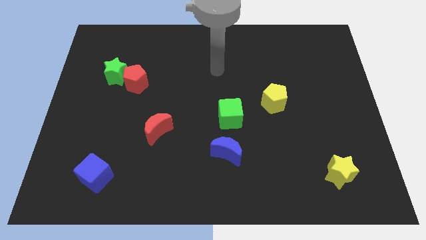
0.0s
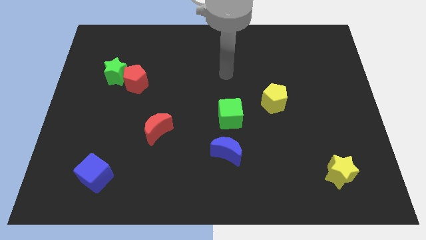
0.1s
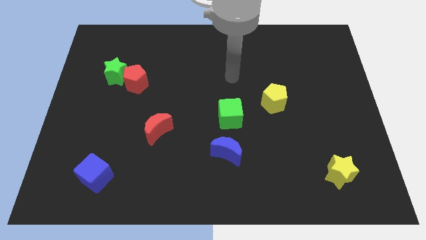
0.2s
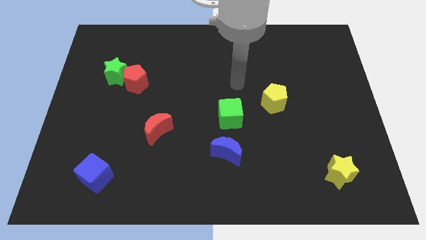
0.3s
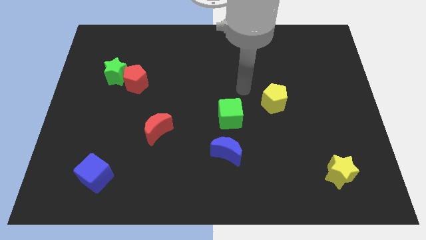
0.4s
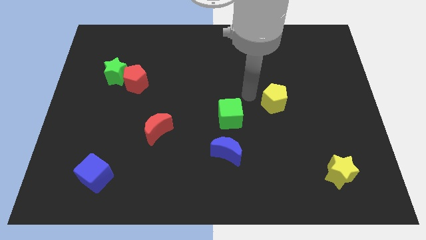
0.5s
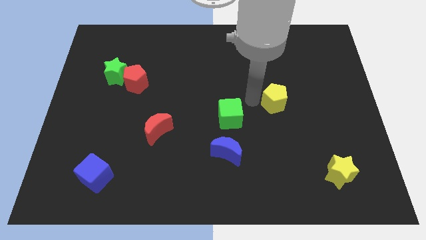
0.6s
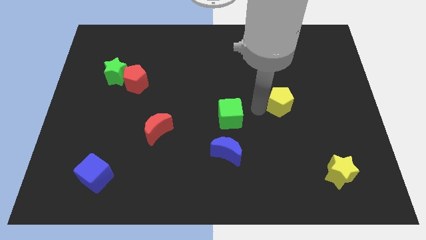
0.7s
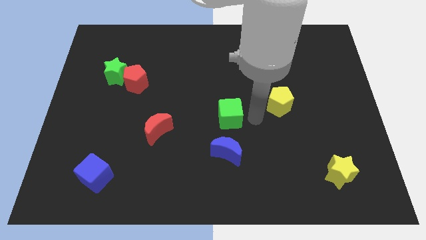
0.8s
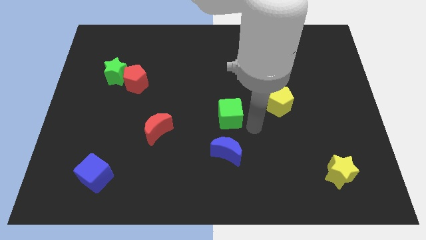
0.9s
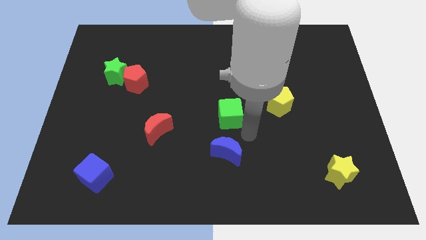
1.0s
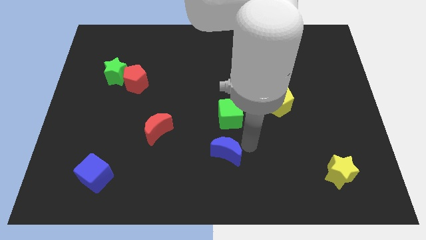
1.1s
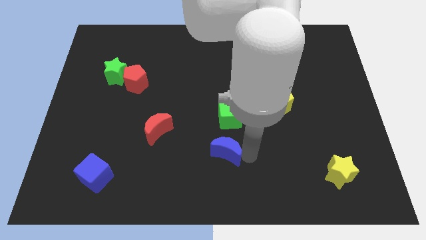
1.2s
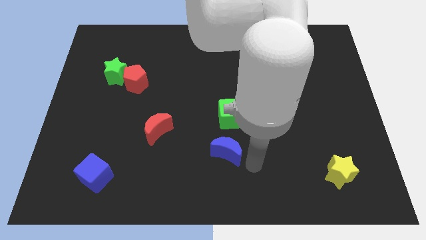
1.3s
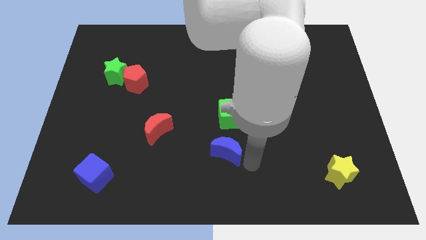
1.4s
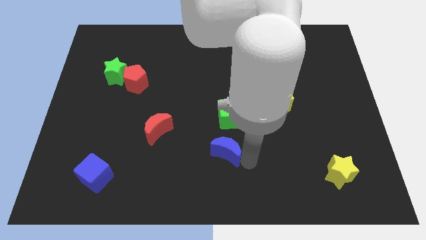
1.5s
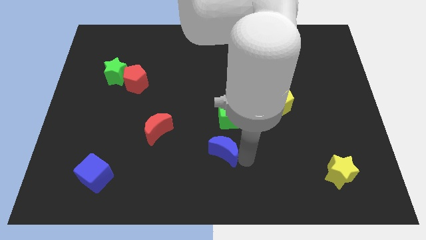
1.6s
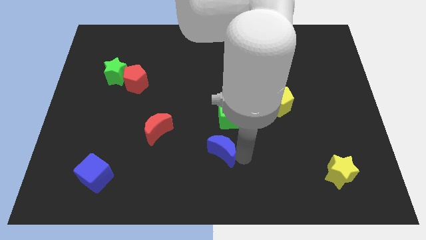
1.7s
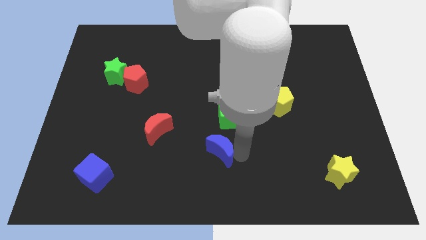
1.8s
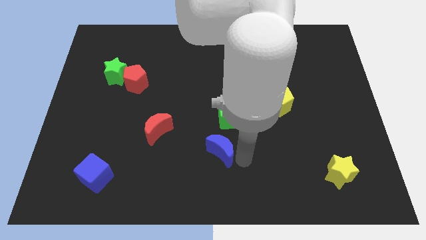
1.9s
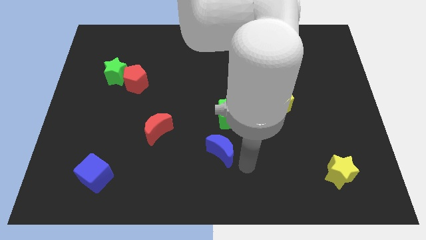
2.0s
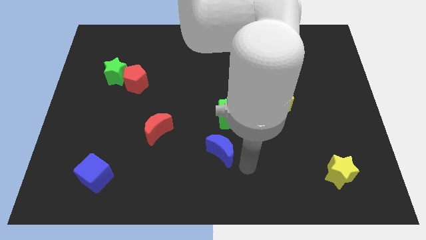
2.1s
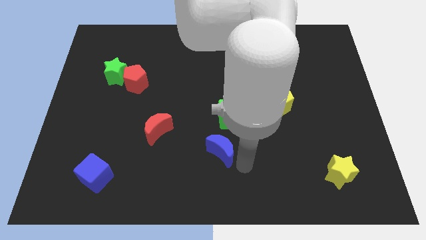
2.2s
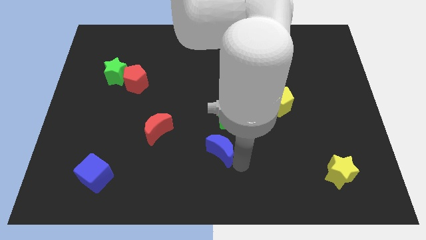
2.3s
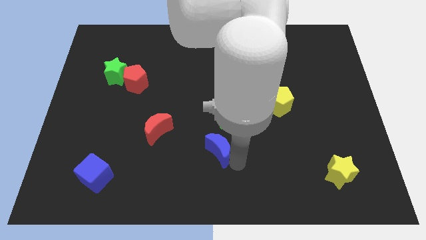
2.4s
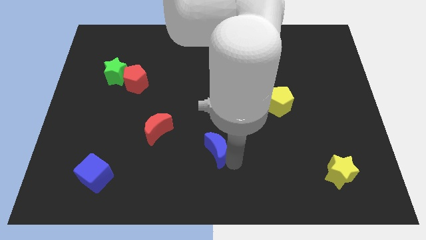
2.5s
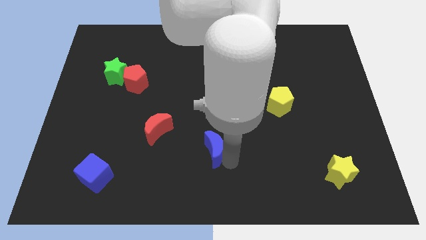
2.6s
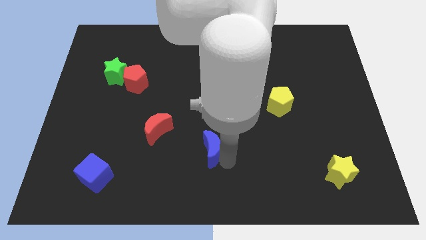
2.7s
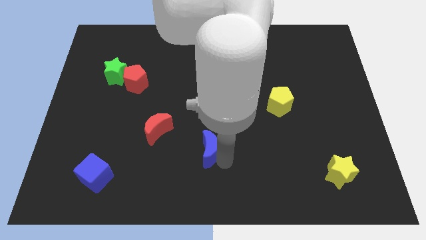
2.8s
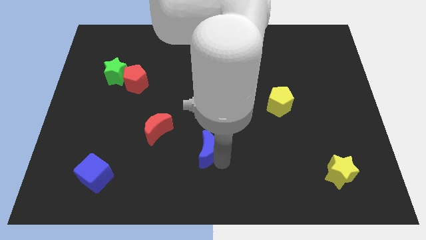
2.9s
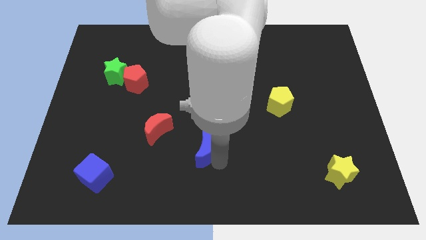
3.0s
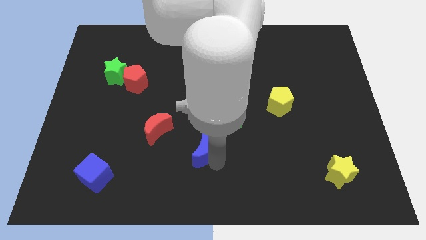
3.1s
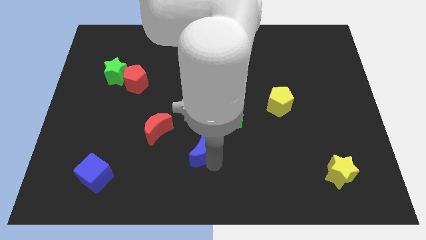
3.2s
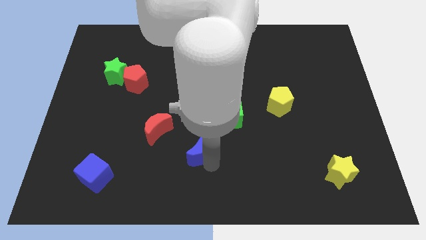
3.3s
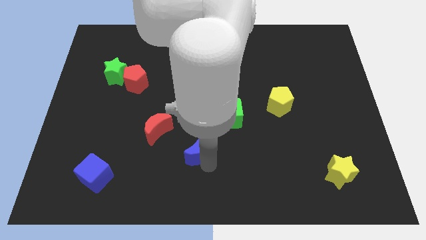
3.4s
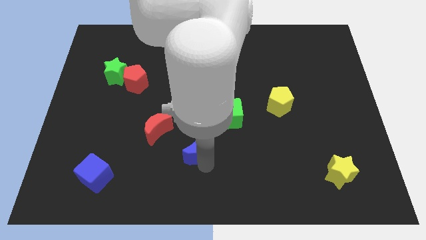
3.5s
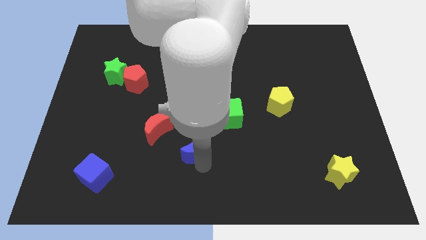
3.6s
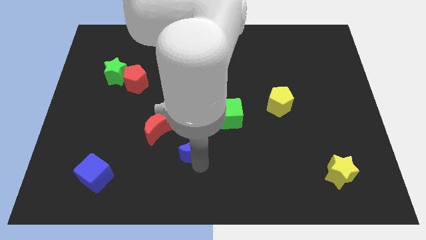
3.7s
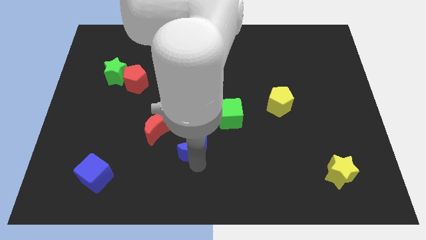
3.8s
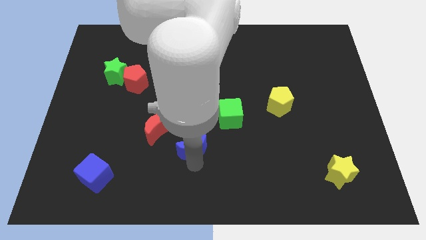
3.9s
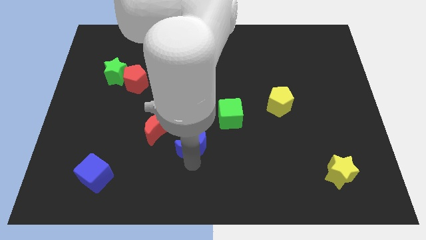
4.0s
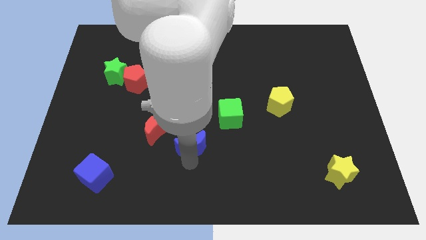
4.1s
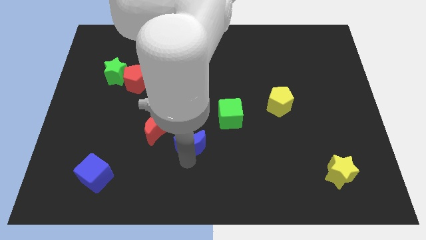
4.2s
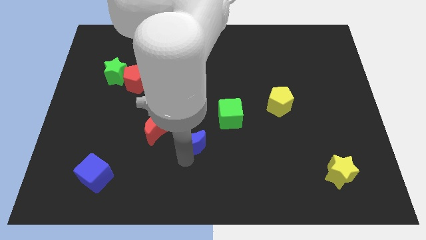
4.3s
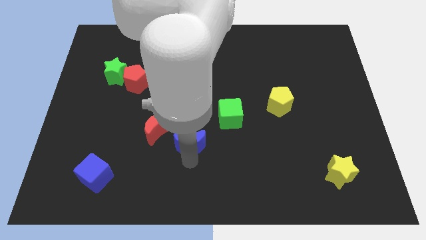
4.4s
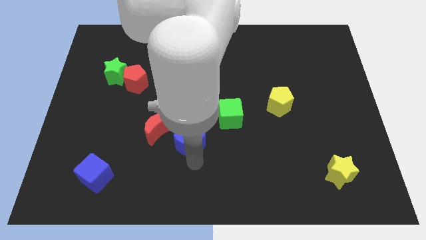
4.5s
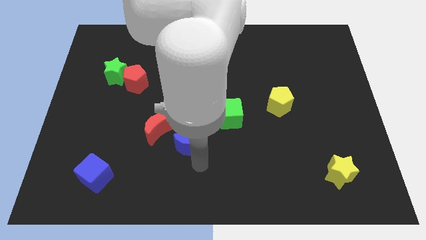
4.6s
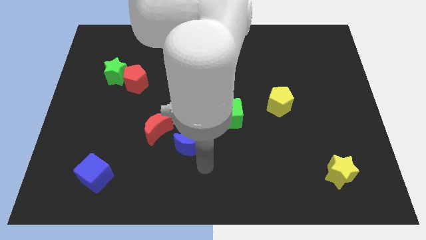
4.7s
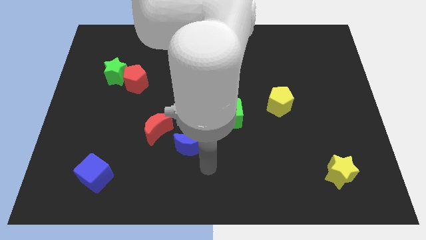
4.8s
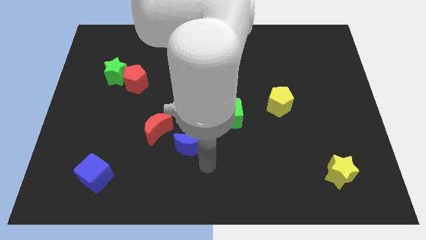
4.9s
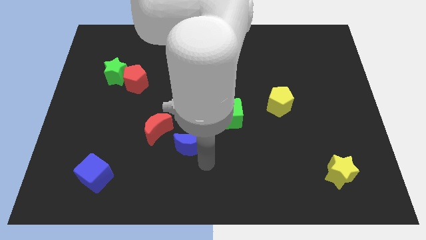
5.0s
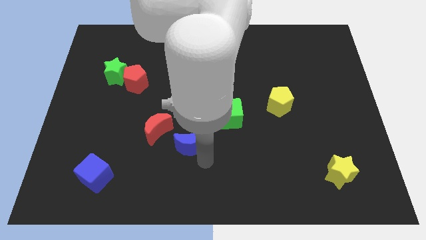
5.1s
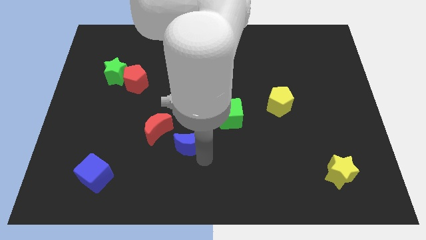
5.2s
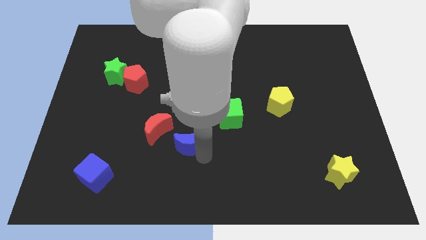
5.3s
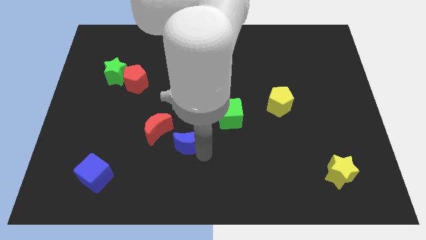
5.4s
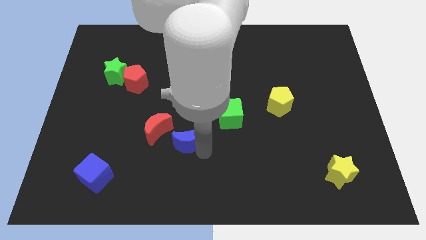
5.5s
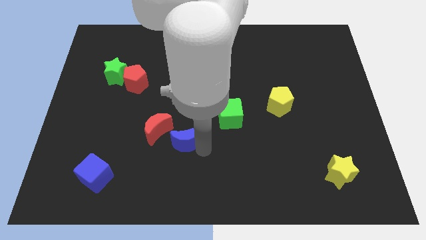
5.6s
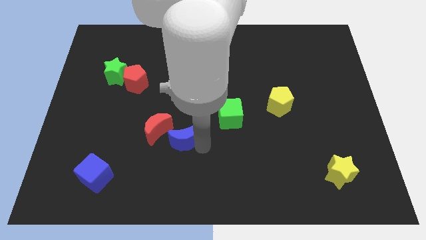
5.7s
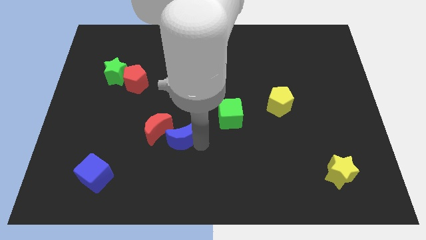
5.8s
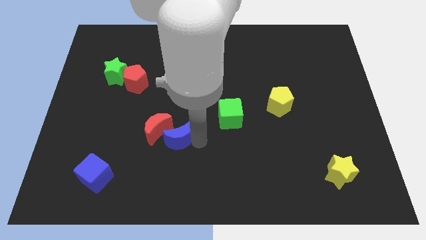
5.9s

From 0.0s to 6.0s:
put the blue moon to the red moon
